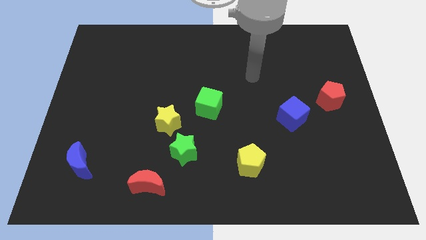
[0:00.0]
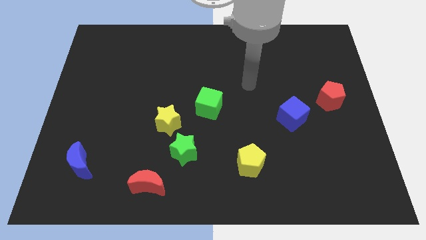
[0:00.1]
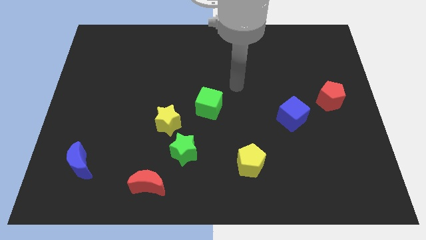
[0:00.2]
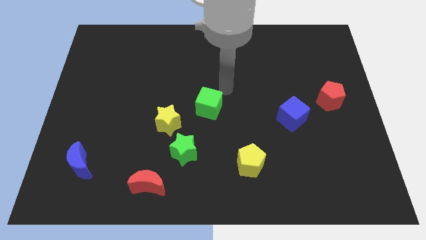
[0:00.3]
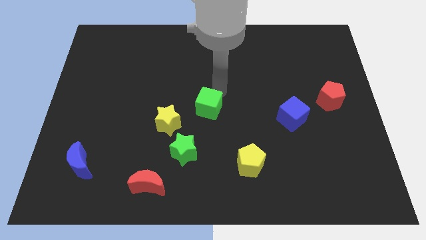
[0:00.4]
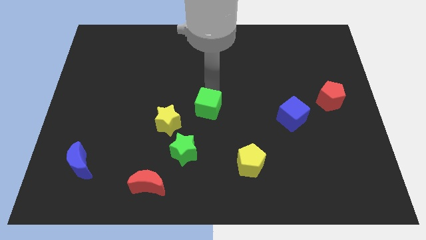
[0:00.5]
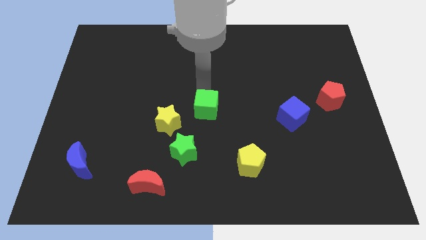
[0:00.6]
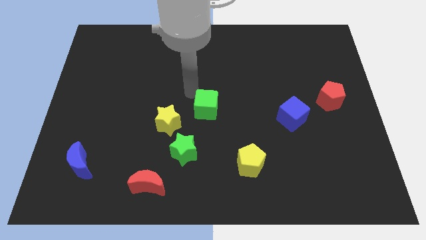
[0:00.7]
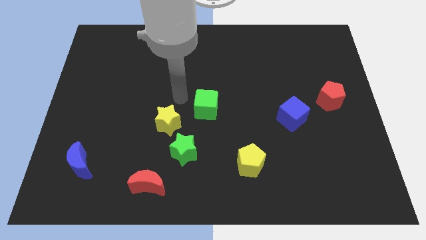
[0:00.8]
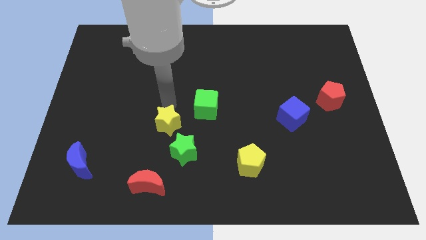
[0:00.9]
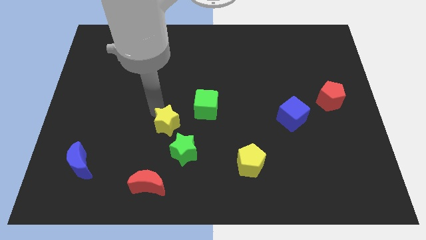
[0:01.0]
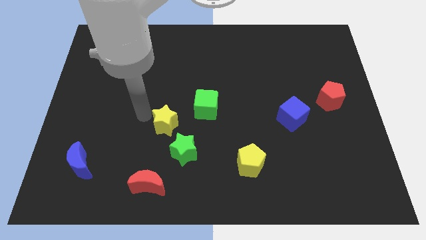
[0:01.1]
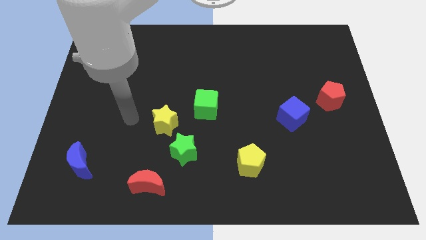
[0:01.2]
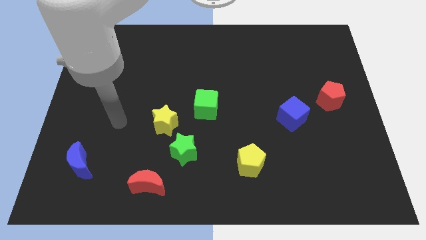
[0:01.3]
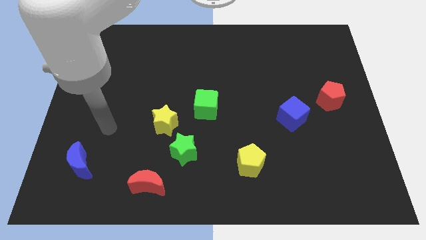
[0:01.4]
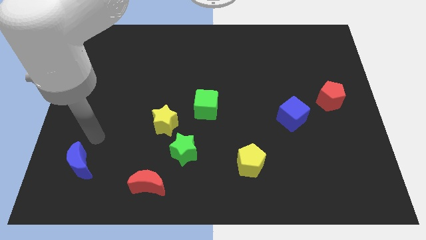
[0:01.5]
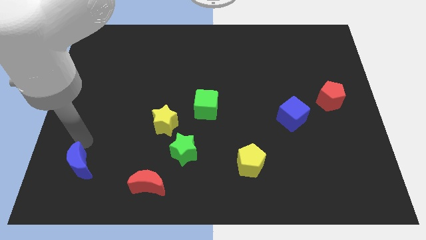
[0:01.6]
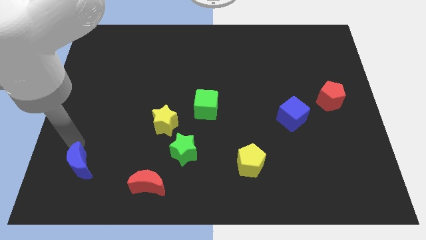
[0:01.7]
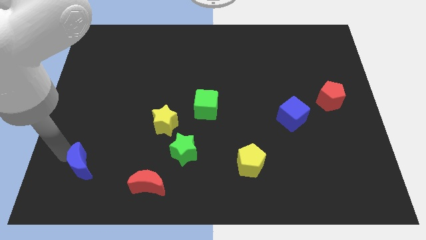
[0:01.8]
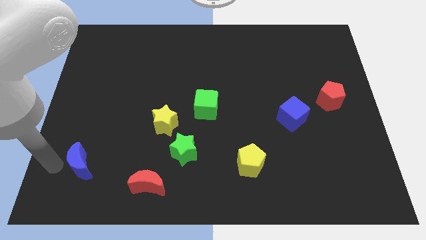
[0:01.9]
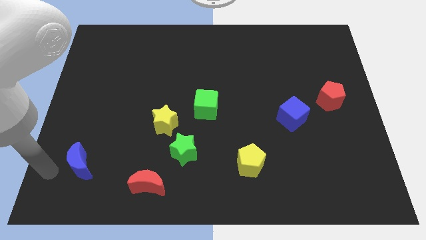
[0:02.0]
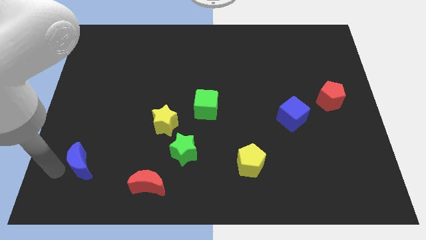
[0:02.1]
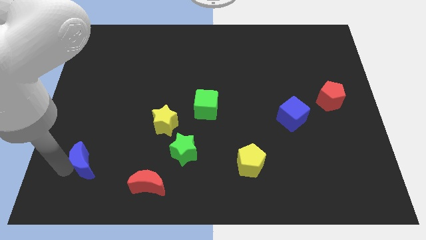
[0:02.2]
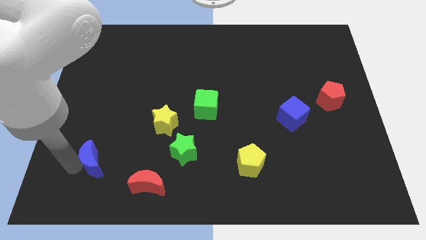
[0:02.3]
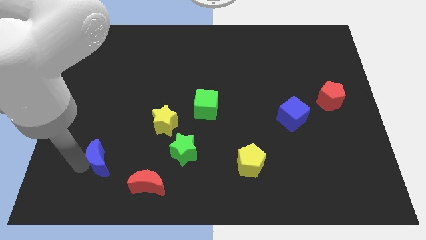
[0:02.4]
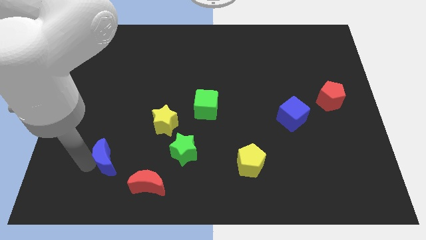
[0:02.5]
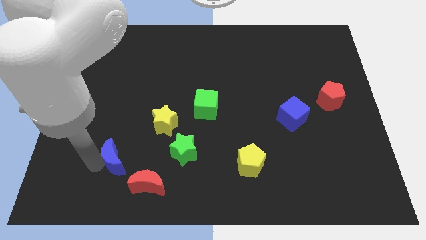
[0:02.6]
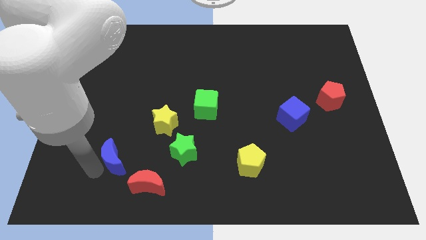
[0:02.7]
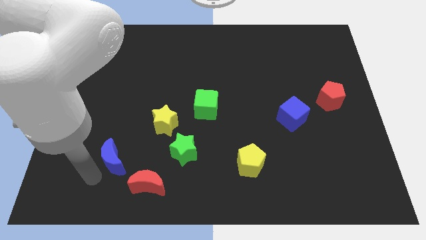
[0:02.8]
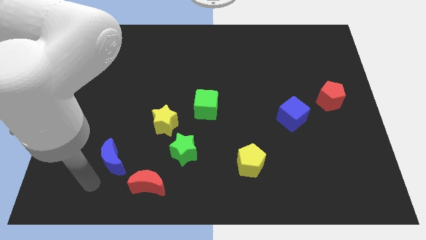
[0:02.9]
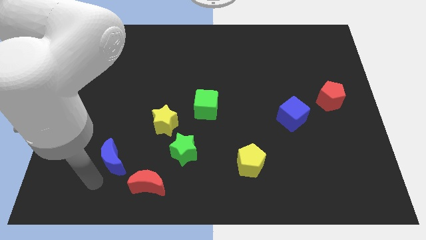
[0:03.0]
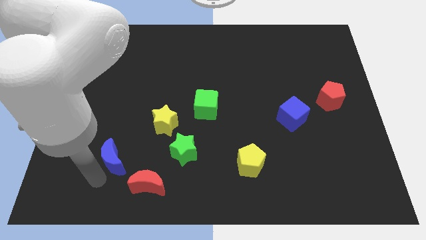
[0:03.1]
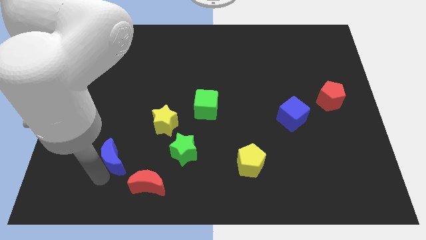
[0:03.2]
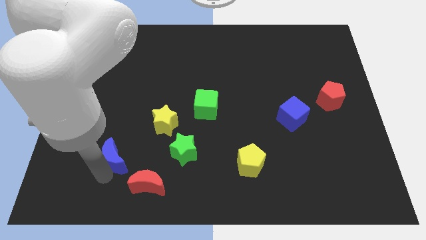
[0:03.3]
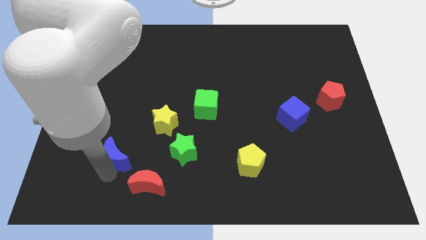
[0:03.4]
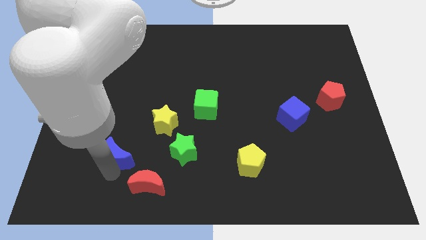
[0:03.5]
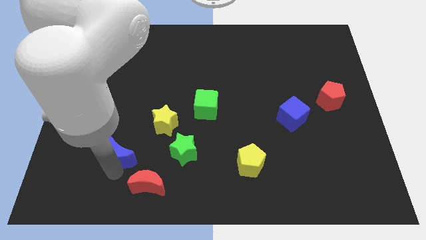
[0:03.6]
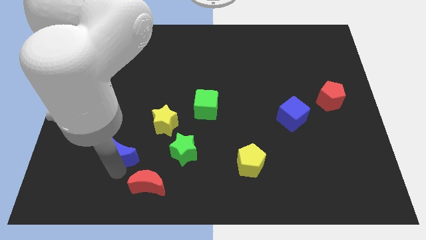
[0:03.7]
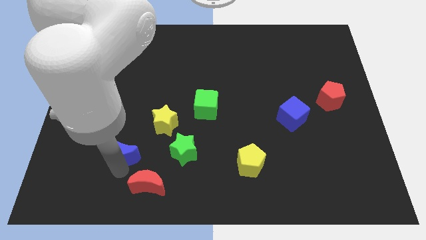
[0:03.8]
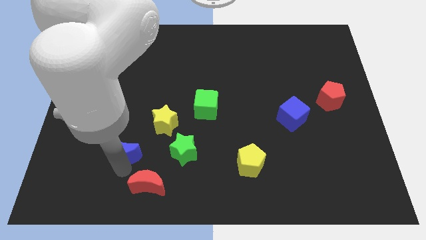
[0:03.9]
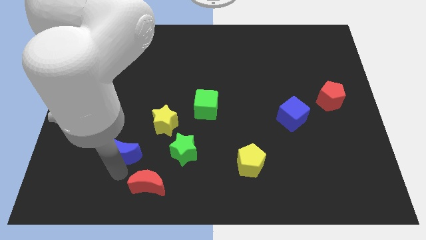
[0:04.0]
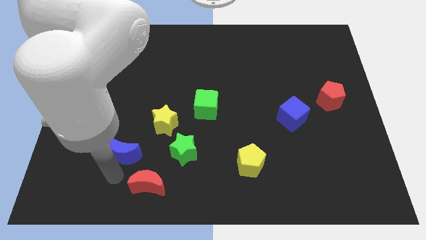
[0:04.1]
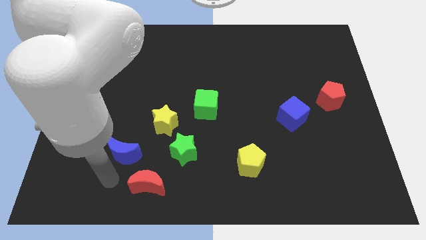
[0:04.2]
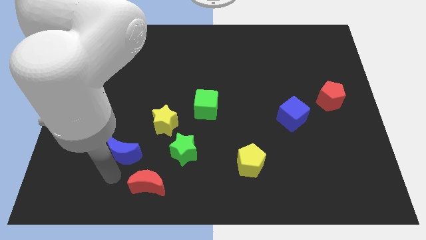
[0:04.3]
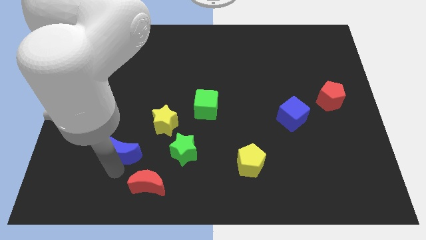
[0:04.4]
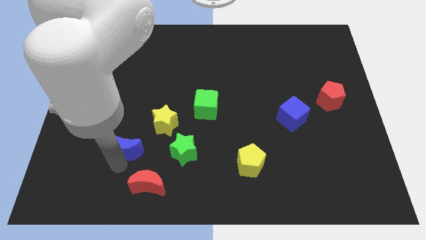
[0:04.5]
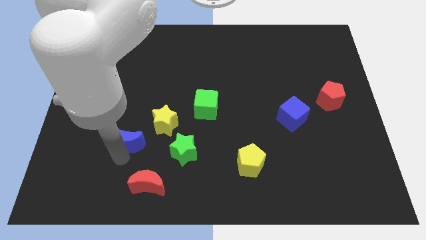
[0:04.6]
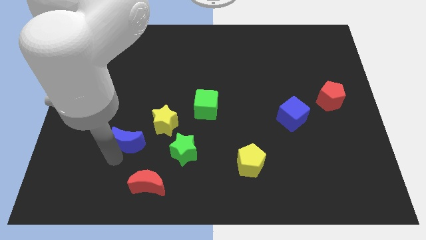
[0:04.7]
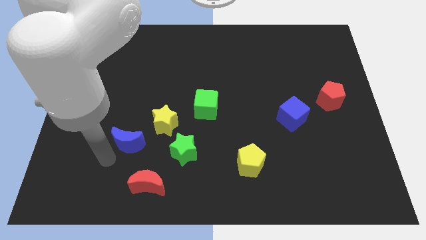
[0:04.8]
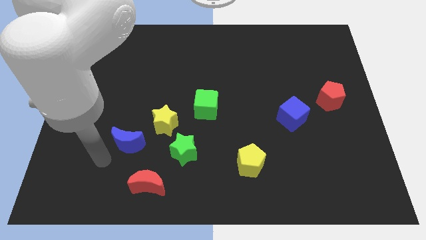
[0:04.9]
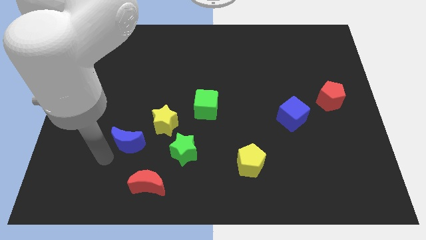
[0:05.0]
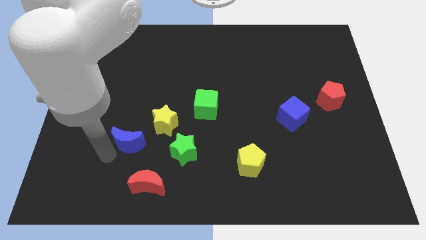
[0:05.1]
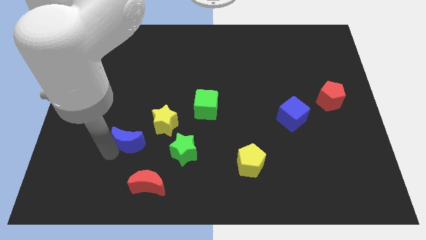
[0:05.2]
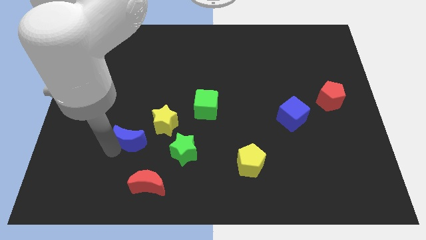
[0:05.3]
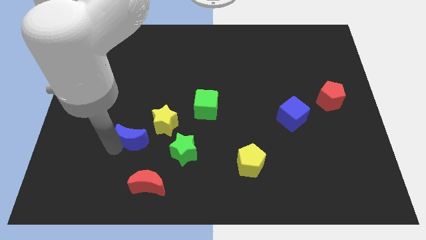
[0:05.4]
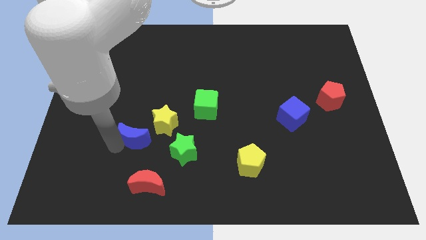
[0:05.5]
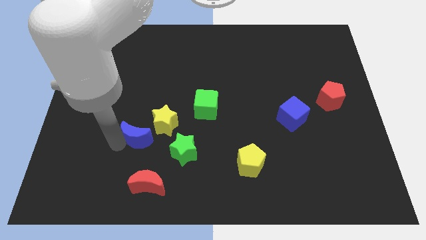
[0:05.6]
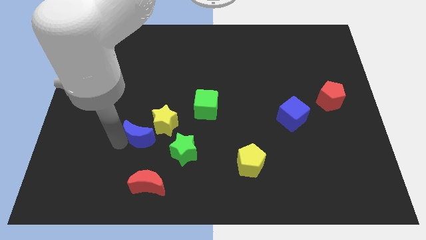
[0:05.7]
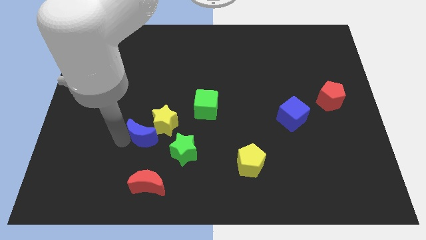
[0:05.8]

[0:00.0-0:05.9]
push the blue moon towards the yellow star

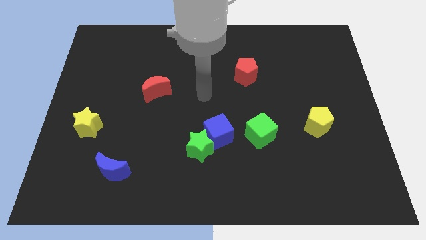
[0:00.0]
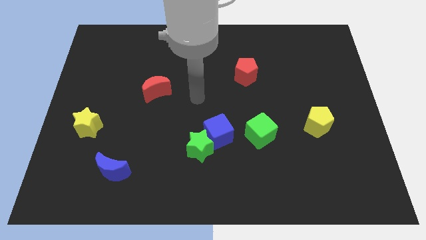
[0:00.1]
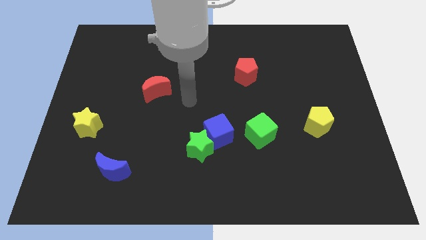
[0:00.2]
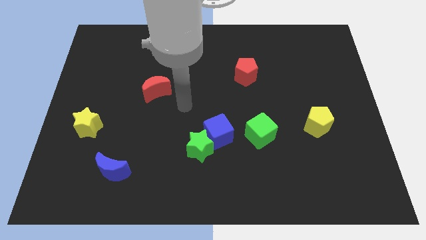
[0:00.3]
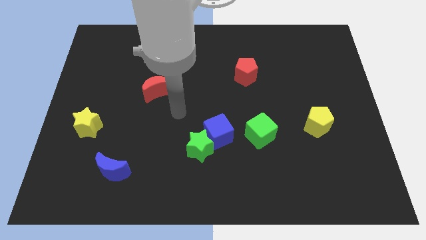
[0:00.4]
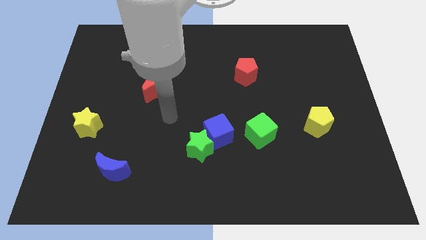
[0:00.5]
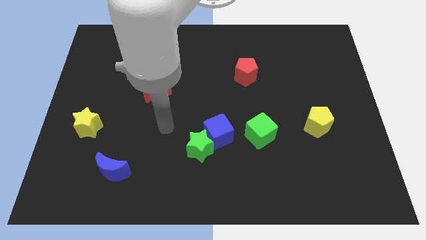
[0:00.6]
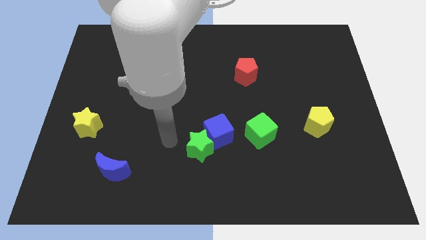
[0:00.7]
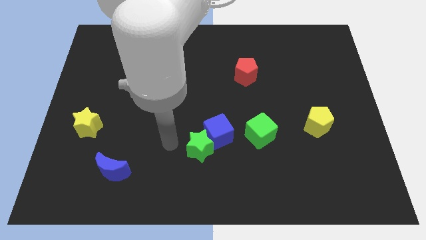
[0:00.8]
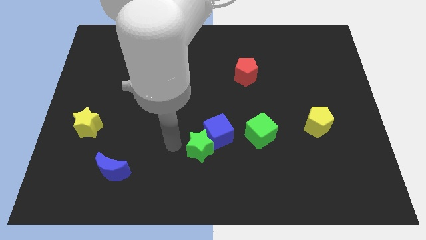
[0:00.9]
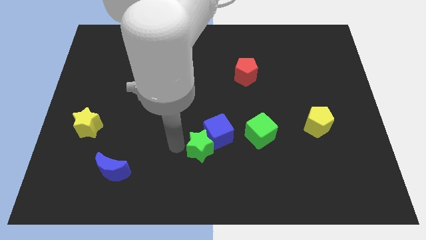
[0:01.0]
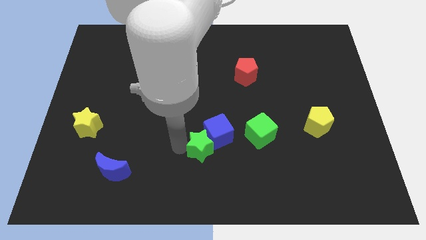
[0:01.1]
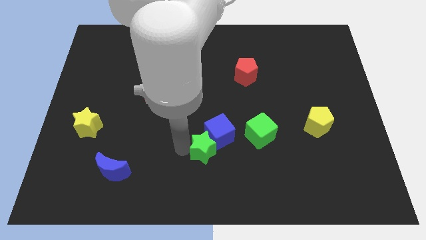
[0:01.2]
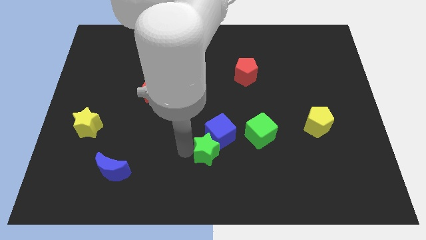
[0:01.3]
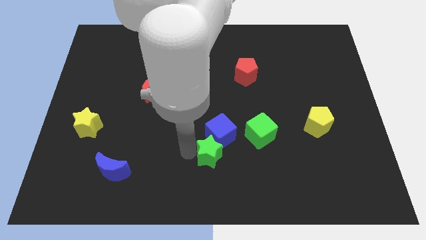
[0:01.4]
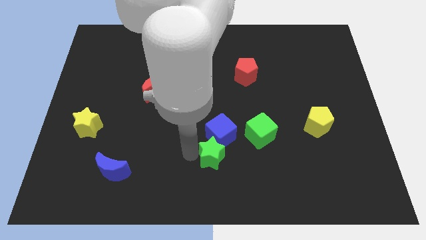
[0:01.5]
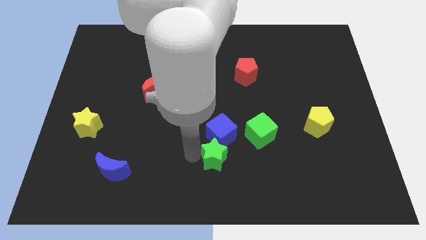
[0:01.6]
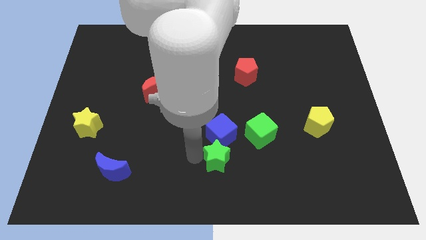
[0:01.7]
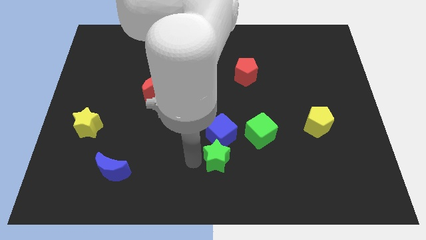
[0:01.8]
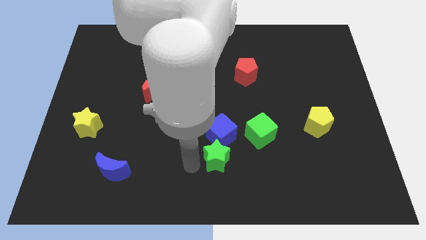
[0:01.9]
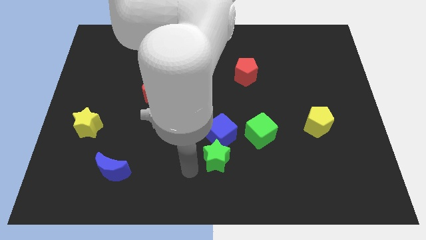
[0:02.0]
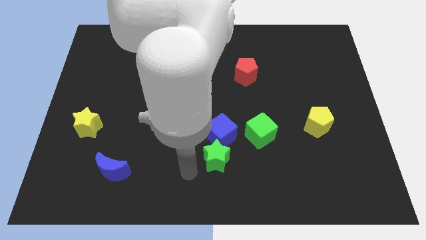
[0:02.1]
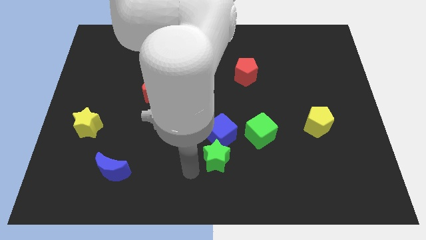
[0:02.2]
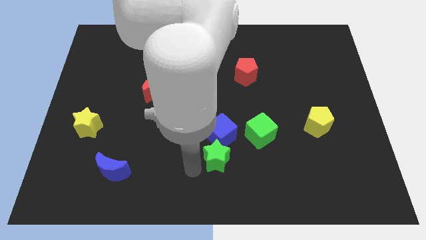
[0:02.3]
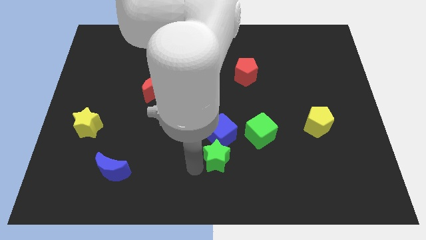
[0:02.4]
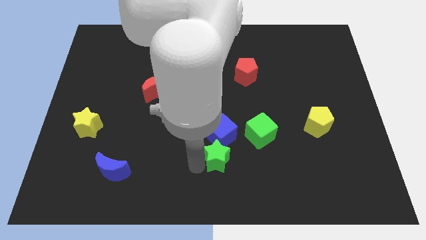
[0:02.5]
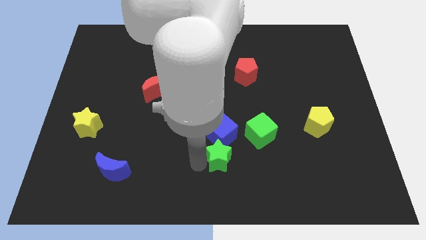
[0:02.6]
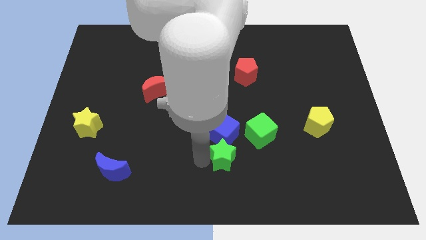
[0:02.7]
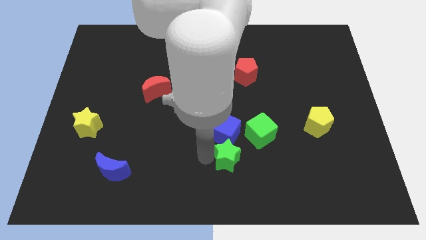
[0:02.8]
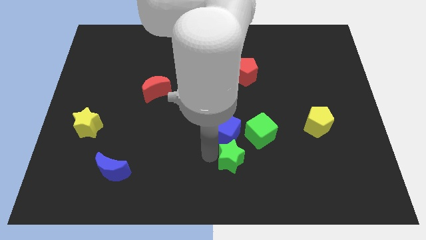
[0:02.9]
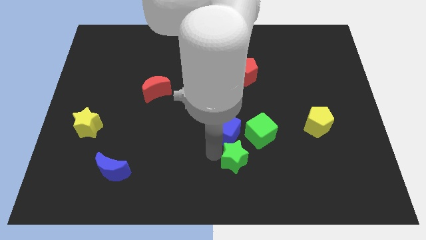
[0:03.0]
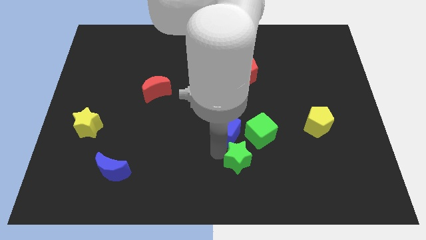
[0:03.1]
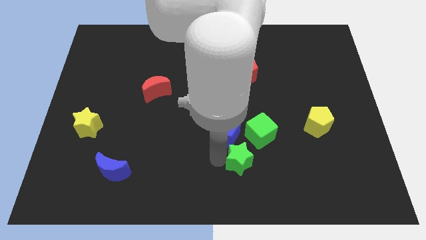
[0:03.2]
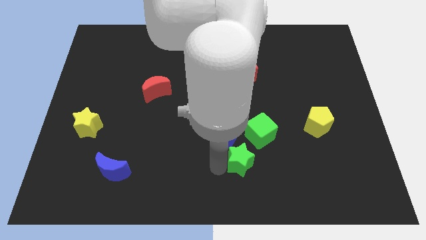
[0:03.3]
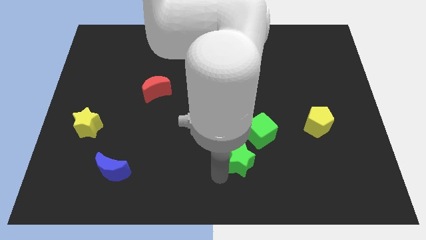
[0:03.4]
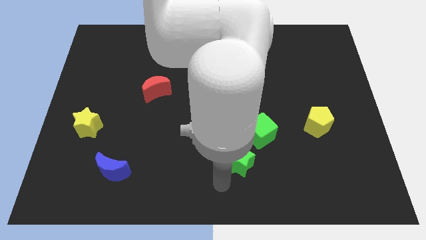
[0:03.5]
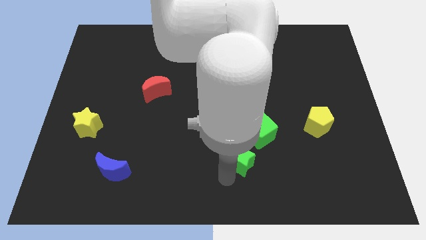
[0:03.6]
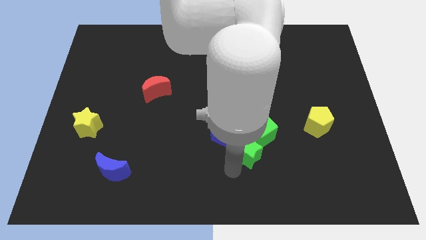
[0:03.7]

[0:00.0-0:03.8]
move the green star to the green cube
